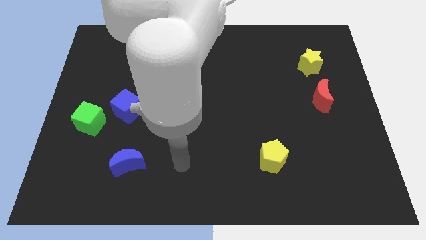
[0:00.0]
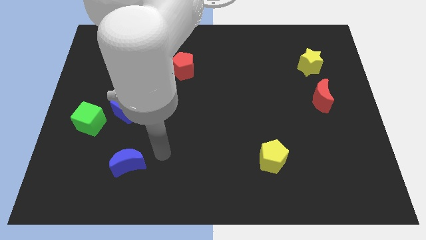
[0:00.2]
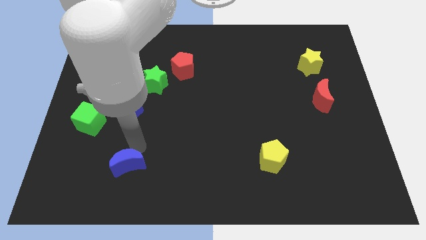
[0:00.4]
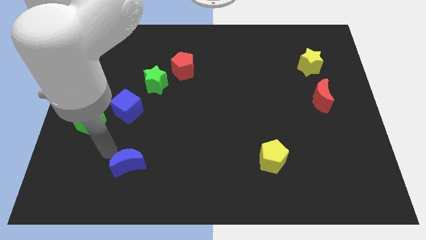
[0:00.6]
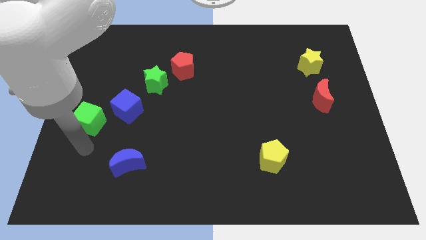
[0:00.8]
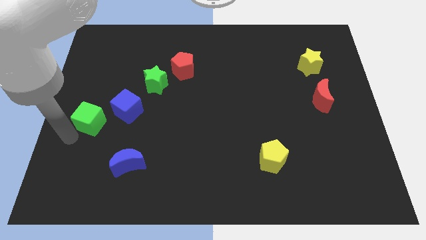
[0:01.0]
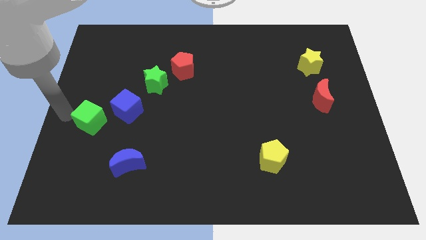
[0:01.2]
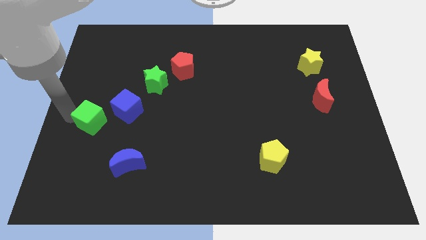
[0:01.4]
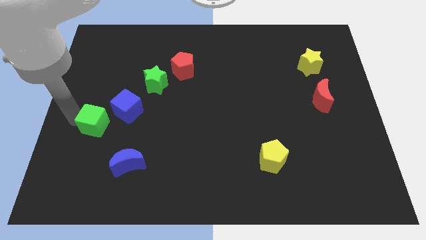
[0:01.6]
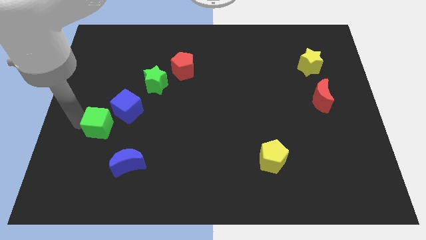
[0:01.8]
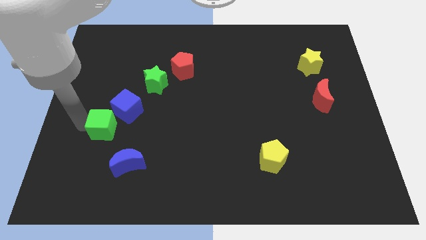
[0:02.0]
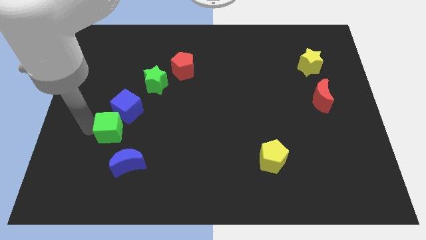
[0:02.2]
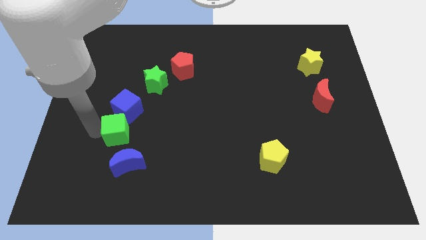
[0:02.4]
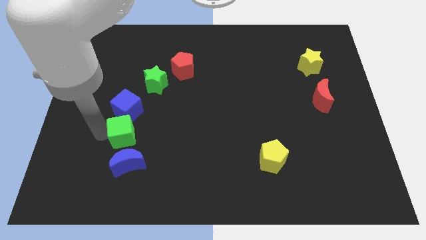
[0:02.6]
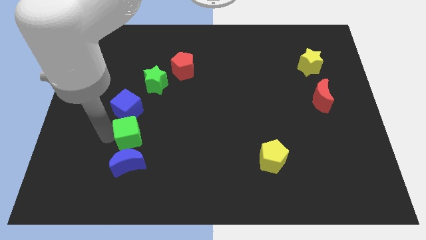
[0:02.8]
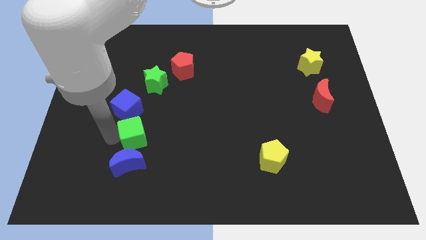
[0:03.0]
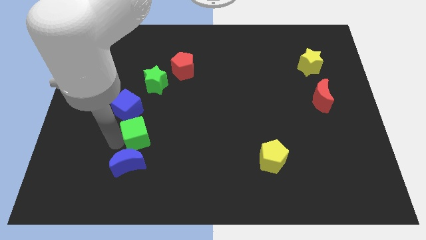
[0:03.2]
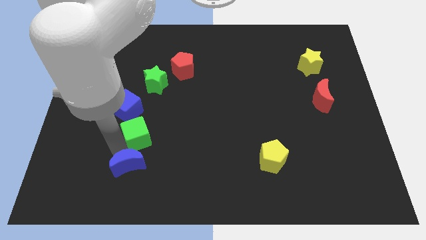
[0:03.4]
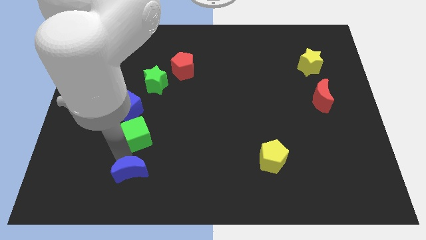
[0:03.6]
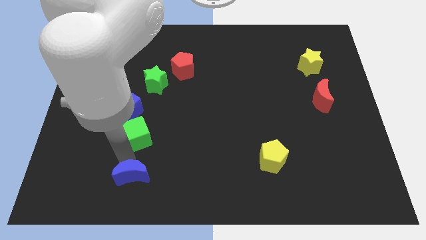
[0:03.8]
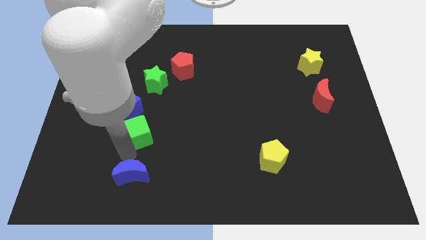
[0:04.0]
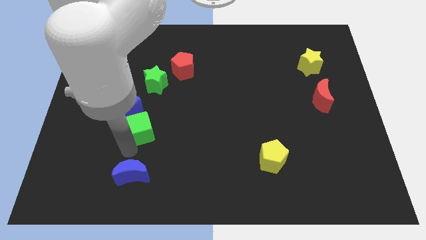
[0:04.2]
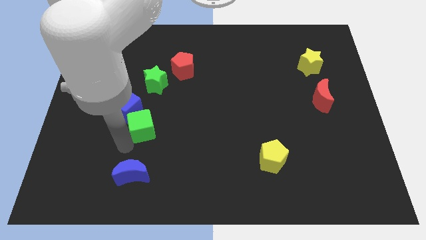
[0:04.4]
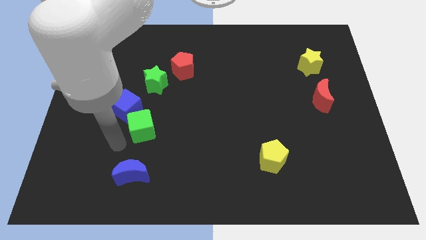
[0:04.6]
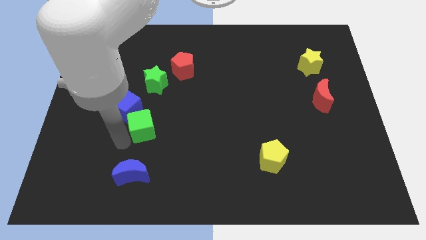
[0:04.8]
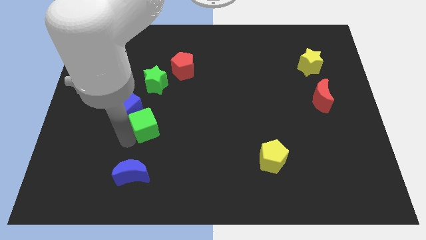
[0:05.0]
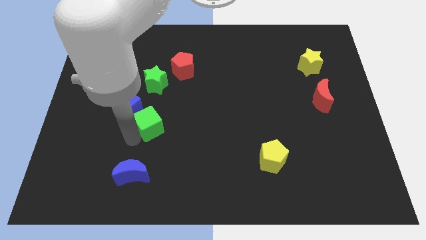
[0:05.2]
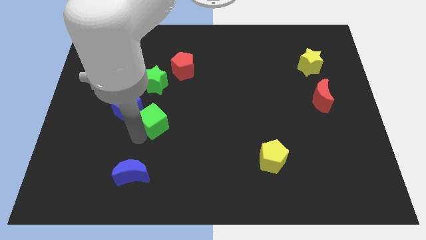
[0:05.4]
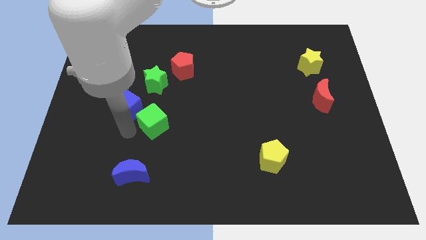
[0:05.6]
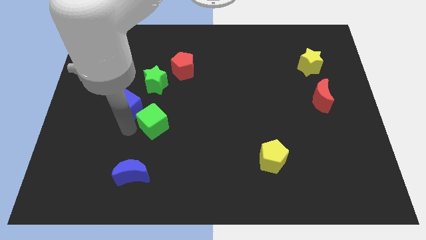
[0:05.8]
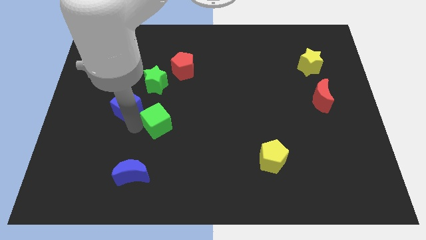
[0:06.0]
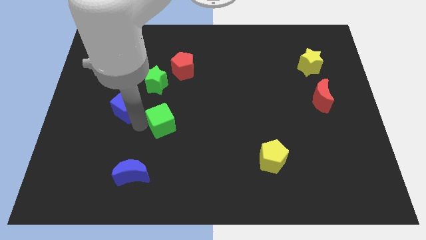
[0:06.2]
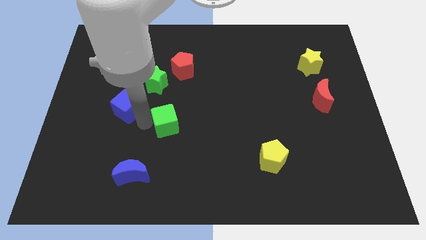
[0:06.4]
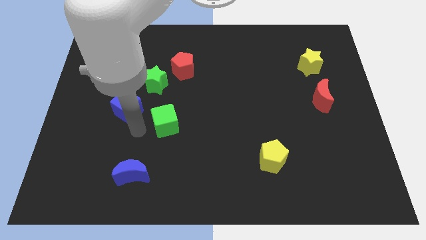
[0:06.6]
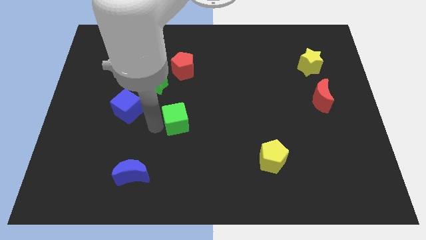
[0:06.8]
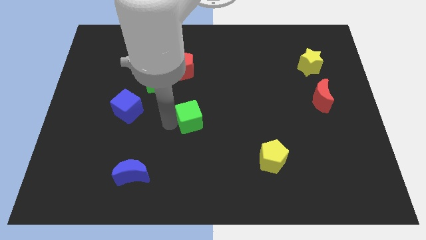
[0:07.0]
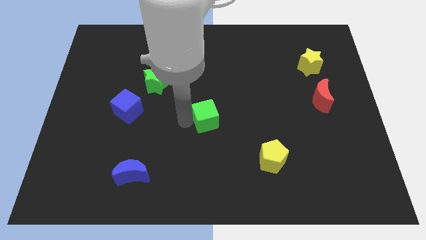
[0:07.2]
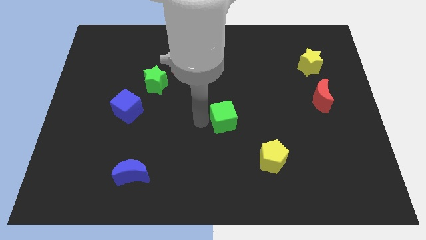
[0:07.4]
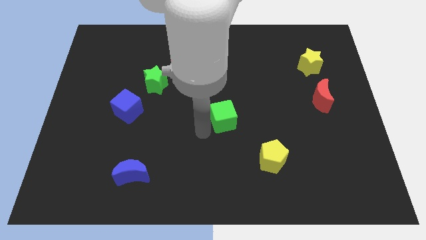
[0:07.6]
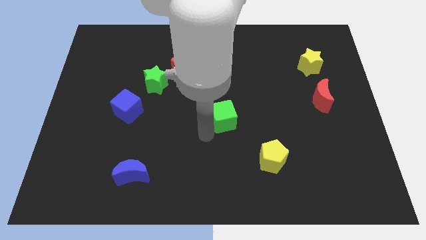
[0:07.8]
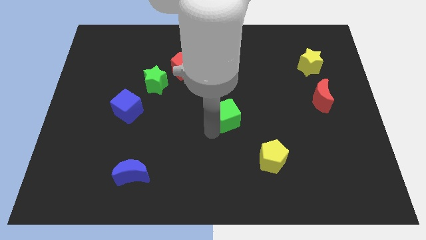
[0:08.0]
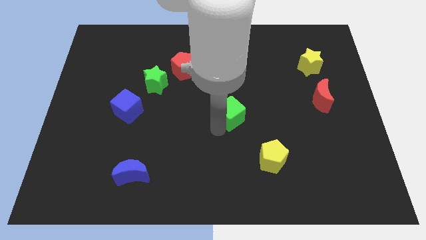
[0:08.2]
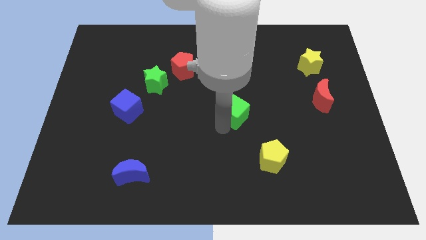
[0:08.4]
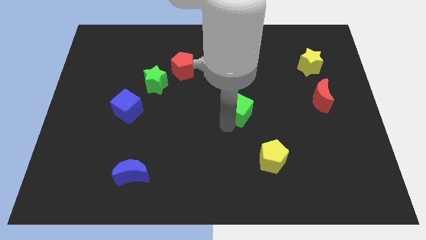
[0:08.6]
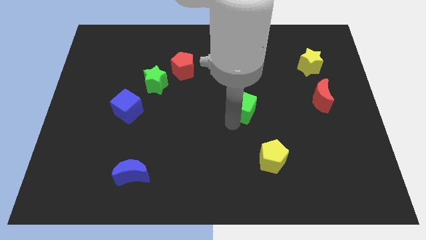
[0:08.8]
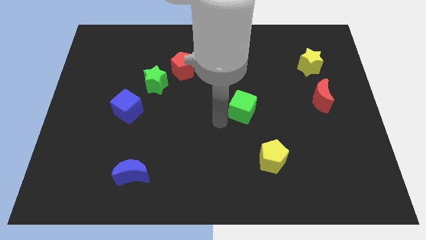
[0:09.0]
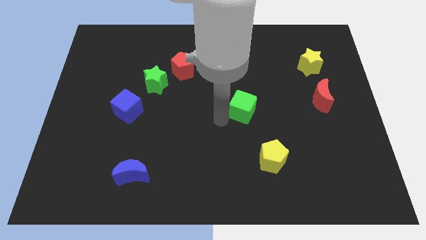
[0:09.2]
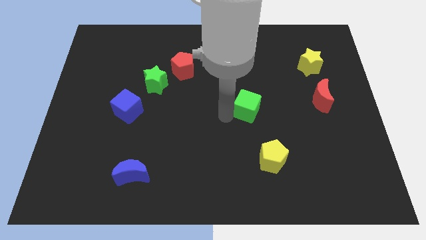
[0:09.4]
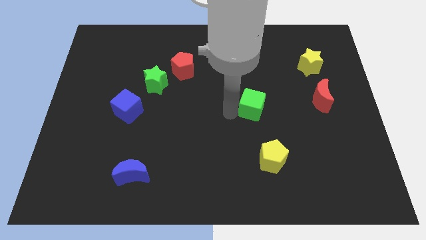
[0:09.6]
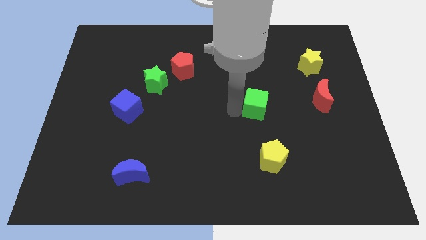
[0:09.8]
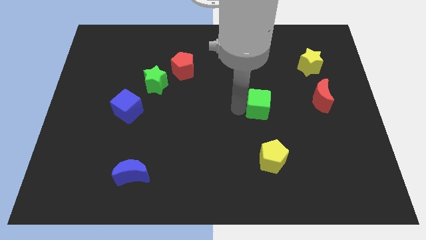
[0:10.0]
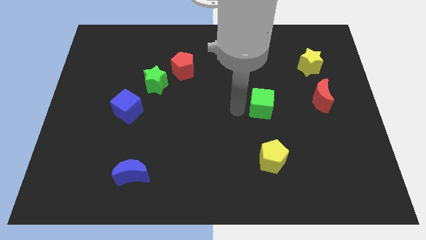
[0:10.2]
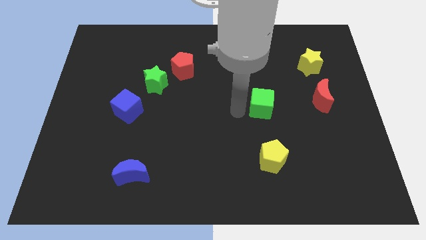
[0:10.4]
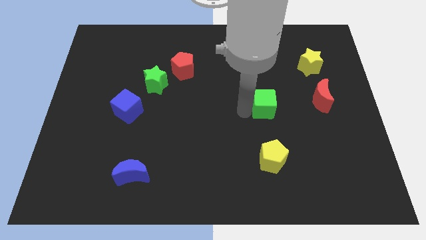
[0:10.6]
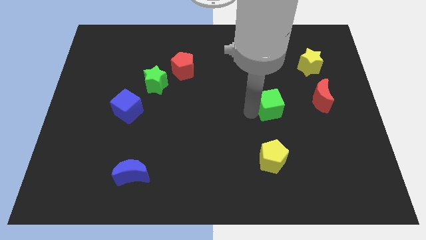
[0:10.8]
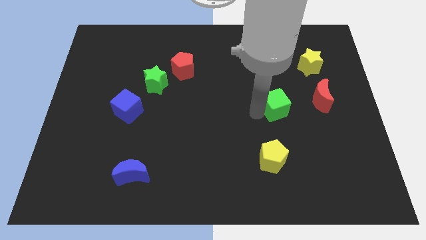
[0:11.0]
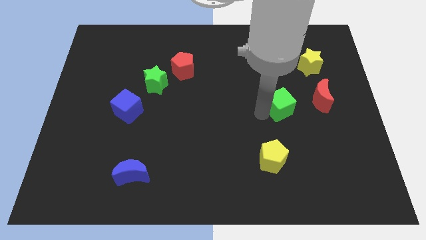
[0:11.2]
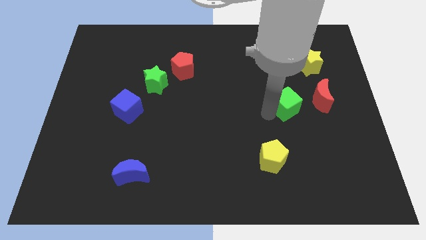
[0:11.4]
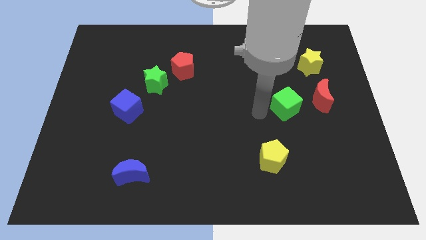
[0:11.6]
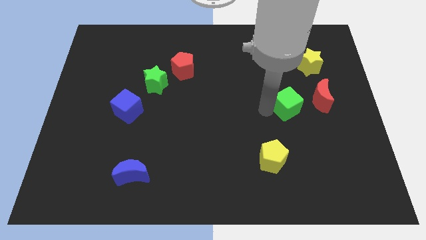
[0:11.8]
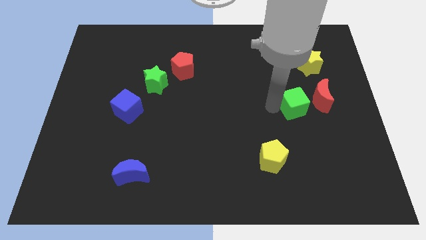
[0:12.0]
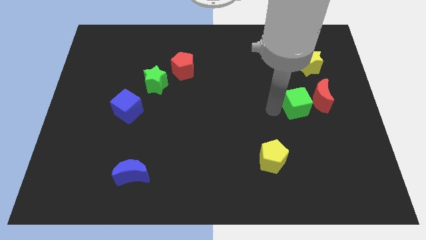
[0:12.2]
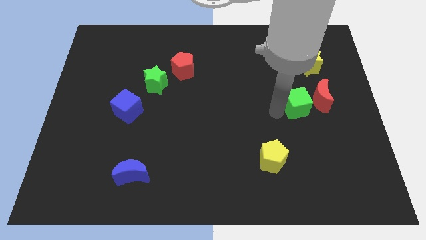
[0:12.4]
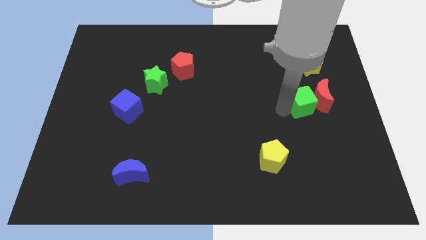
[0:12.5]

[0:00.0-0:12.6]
push the green cube close to the red moon

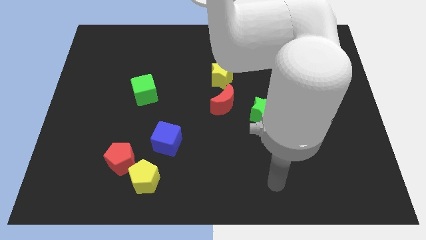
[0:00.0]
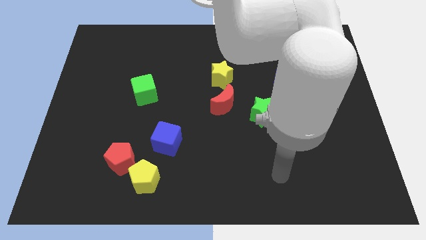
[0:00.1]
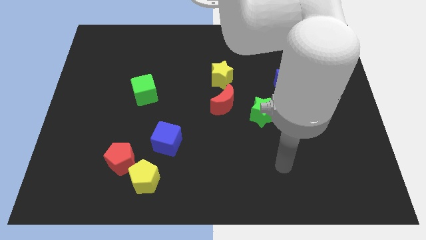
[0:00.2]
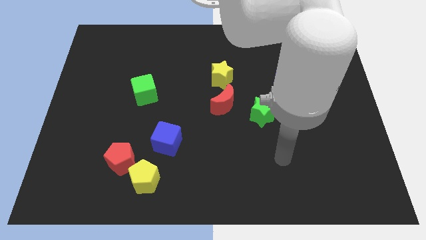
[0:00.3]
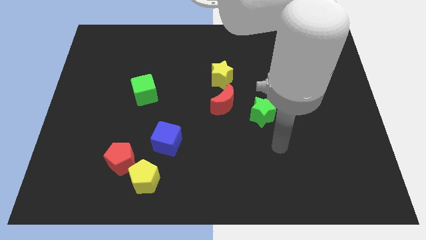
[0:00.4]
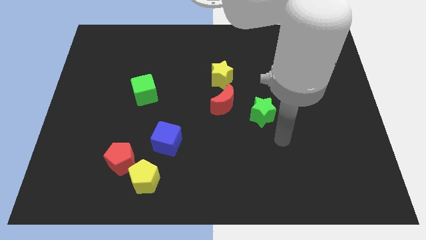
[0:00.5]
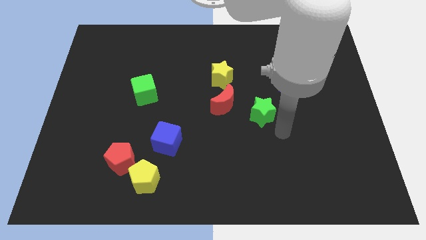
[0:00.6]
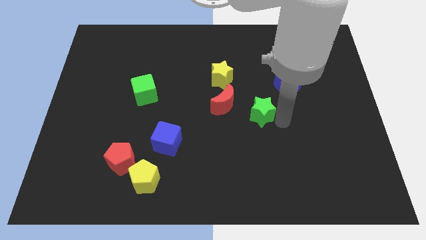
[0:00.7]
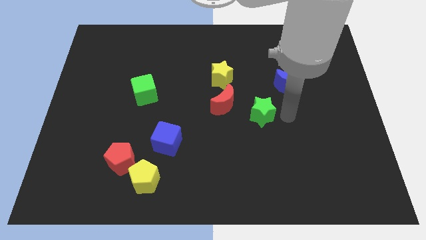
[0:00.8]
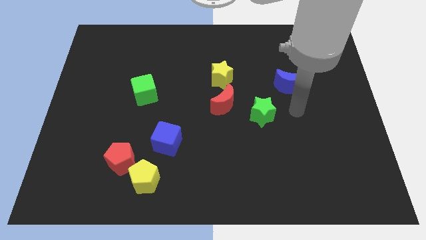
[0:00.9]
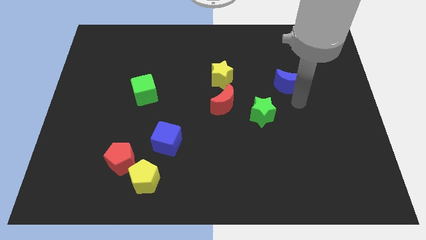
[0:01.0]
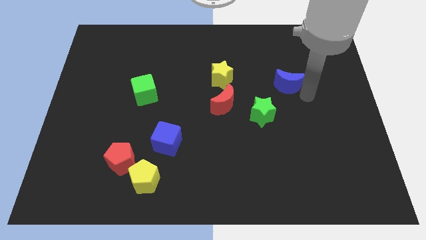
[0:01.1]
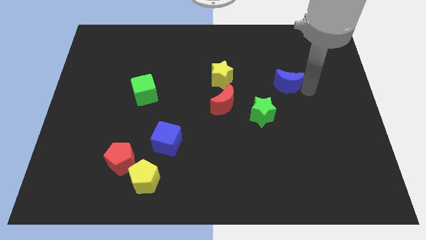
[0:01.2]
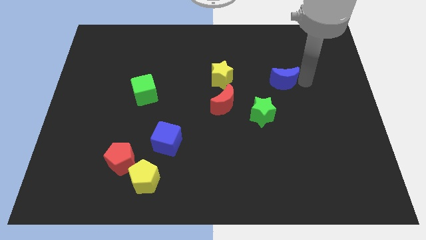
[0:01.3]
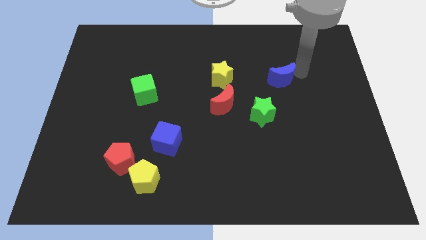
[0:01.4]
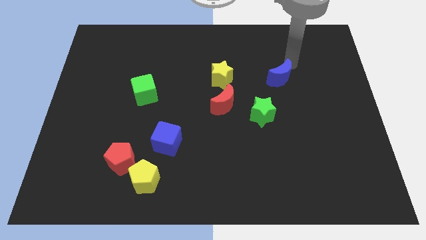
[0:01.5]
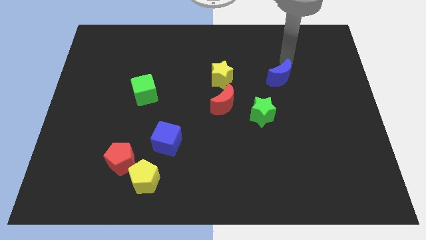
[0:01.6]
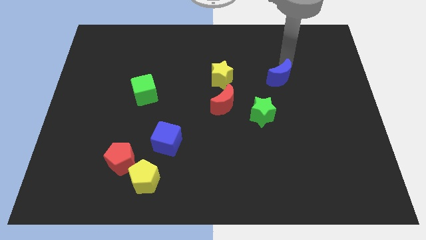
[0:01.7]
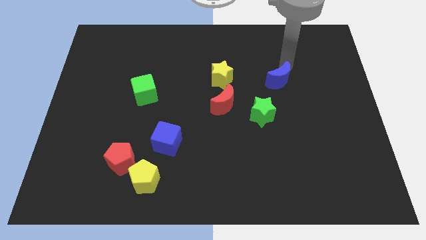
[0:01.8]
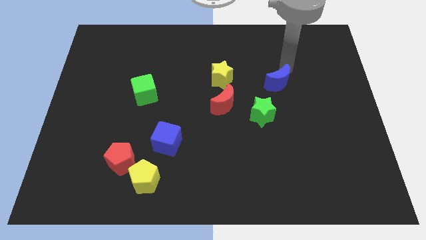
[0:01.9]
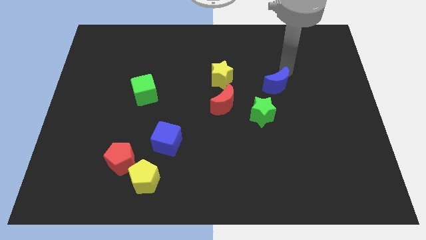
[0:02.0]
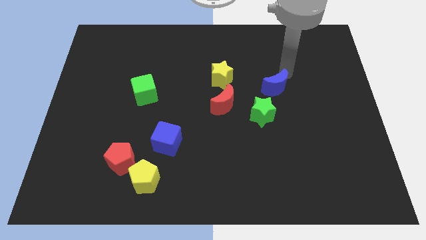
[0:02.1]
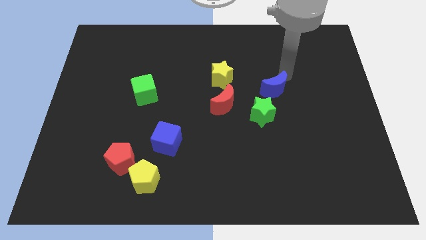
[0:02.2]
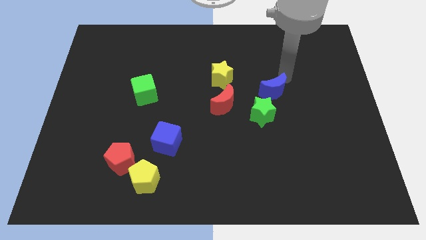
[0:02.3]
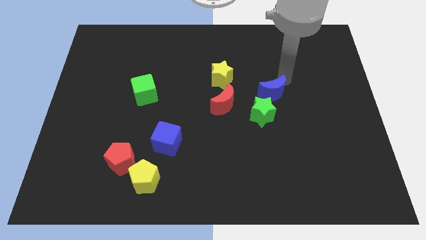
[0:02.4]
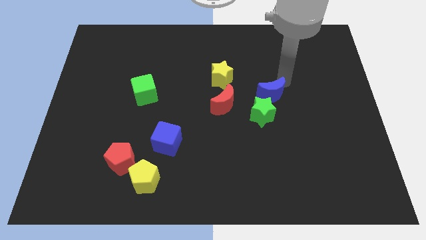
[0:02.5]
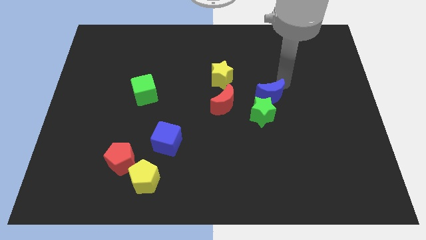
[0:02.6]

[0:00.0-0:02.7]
push the blue moon to the green star
